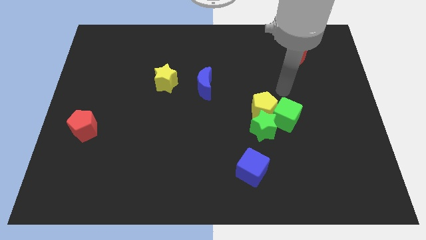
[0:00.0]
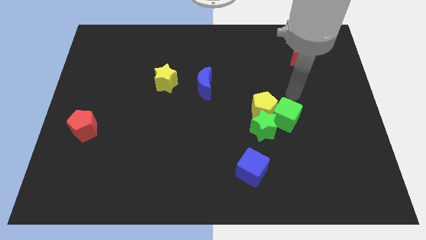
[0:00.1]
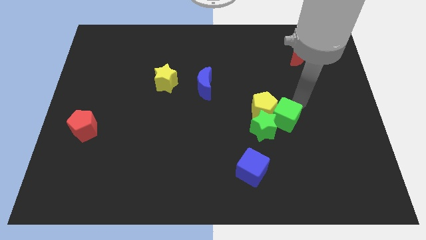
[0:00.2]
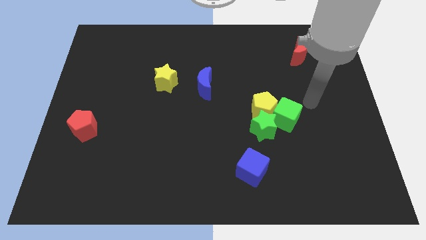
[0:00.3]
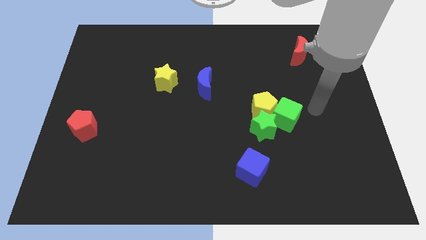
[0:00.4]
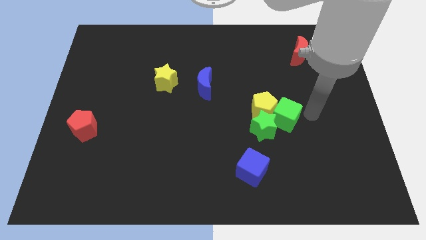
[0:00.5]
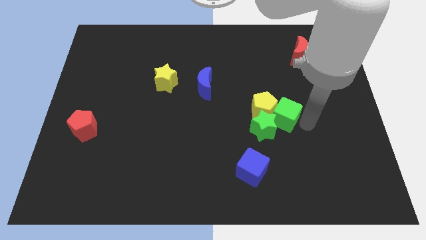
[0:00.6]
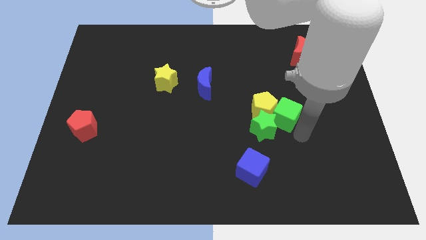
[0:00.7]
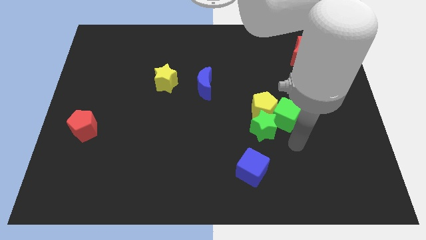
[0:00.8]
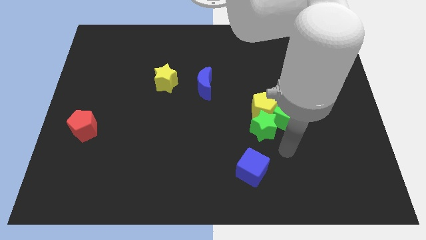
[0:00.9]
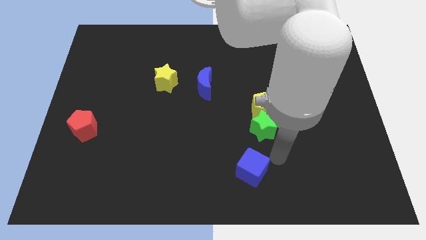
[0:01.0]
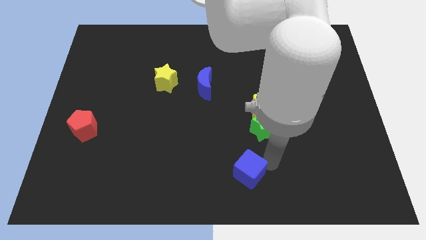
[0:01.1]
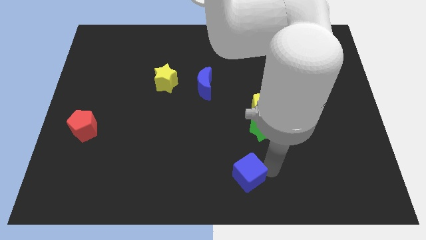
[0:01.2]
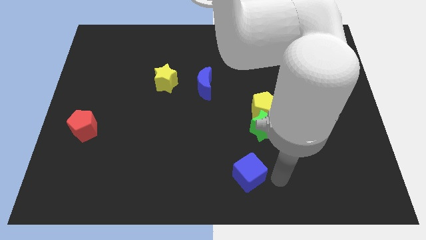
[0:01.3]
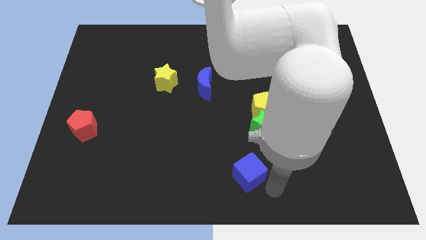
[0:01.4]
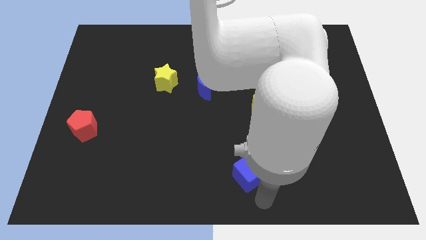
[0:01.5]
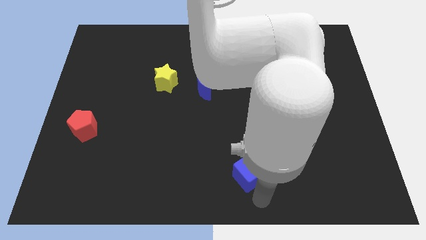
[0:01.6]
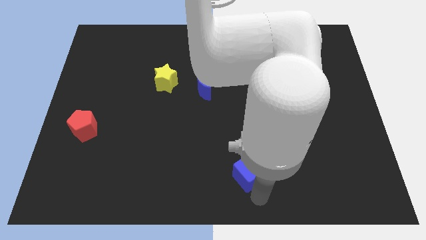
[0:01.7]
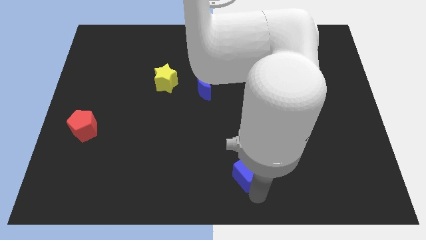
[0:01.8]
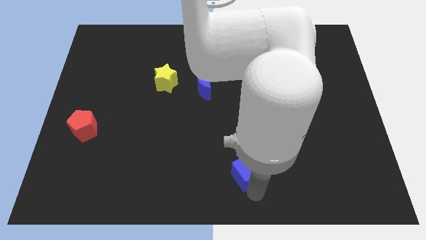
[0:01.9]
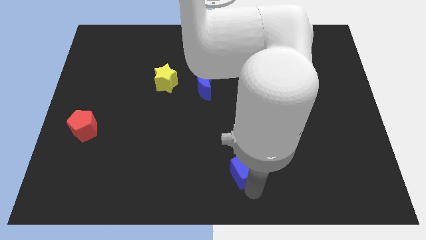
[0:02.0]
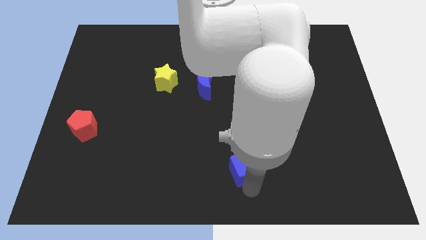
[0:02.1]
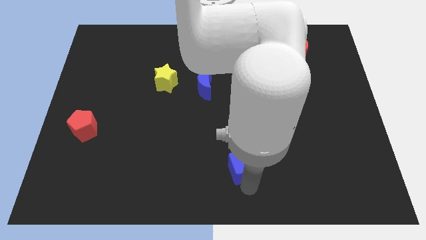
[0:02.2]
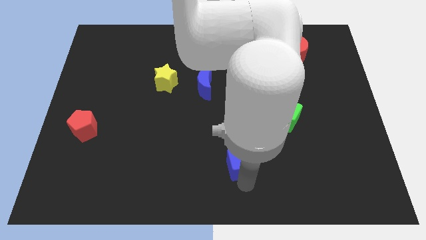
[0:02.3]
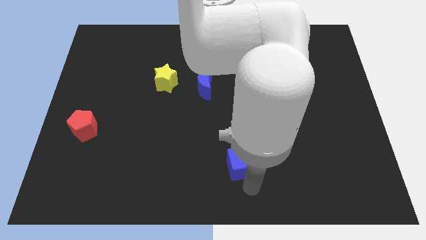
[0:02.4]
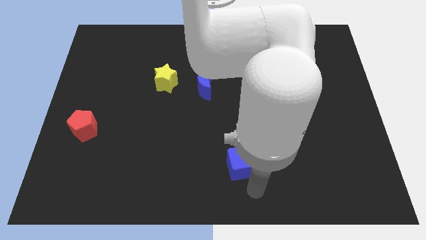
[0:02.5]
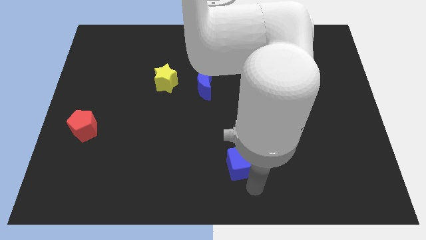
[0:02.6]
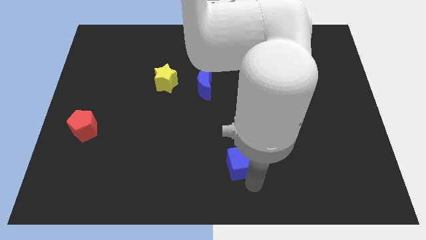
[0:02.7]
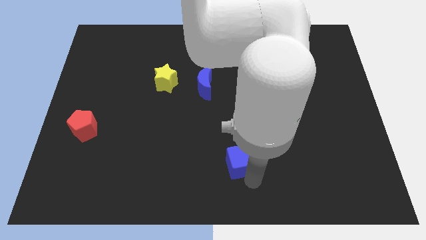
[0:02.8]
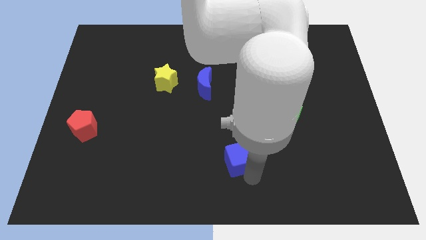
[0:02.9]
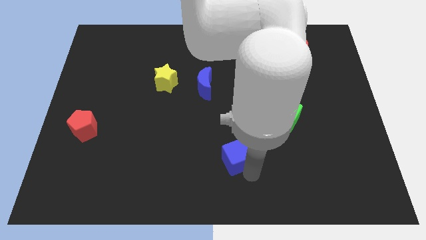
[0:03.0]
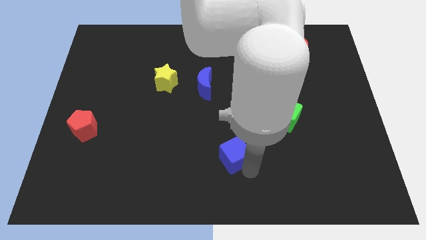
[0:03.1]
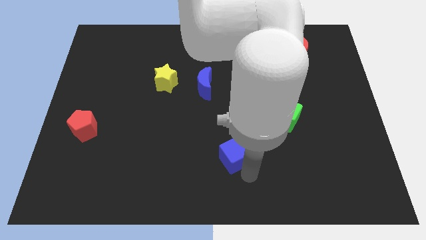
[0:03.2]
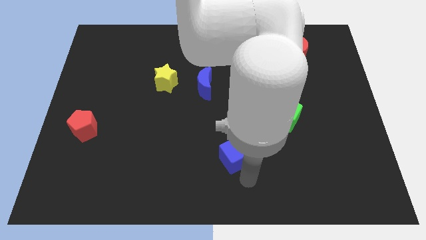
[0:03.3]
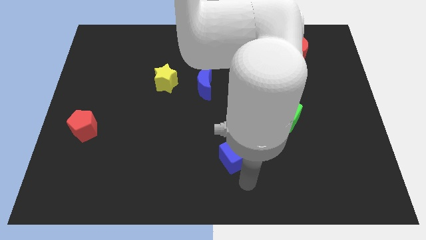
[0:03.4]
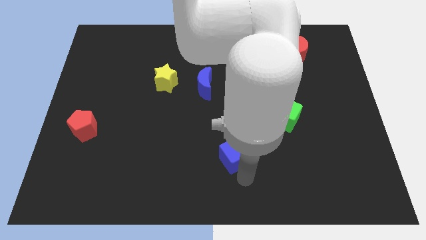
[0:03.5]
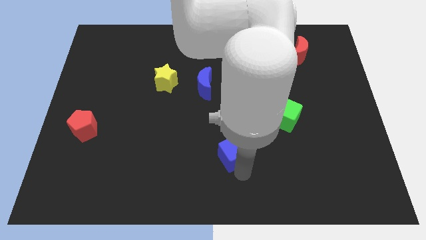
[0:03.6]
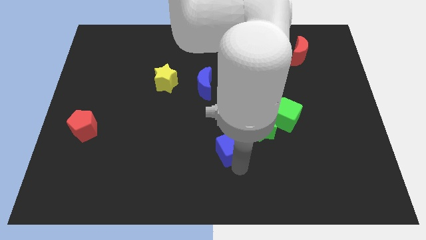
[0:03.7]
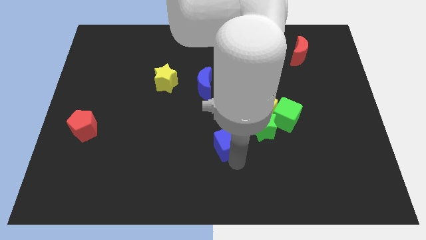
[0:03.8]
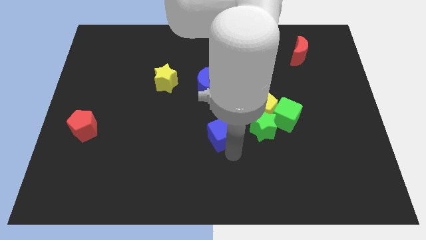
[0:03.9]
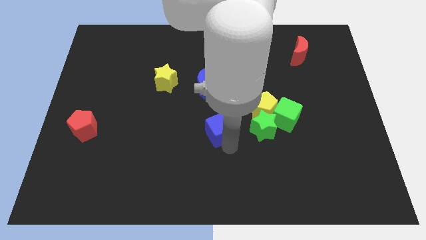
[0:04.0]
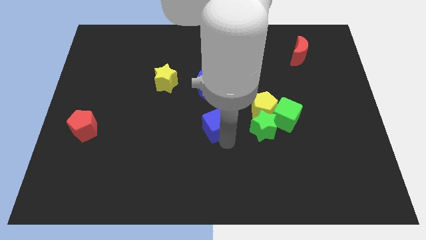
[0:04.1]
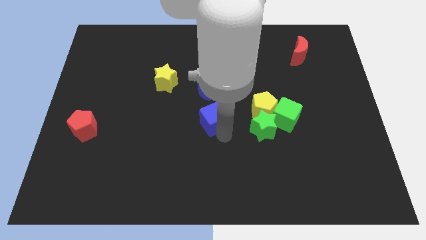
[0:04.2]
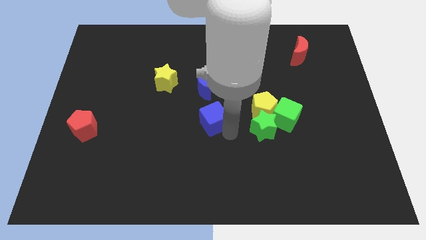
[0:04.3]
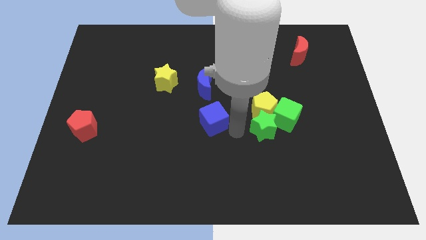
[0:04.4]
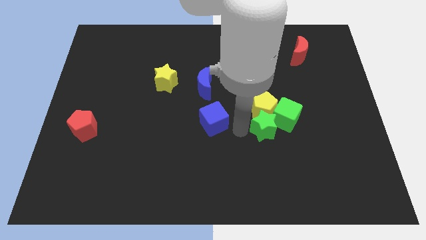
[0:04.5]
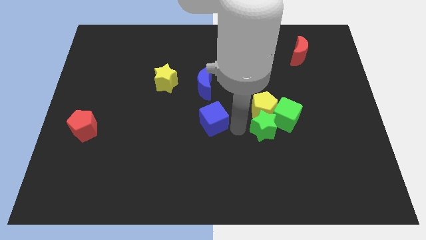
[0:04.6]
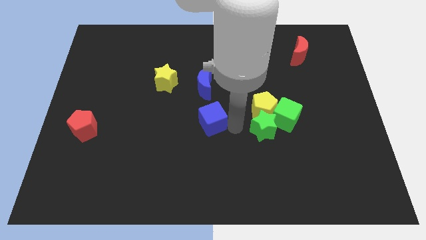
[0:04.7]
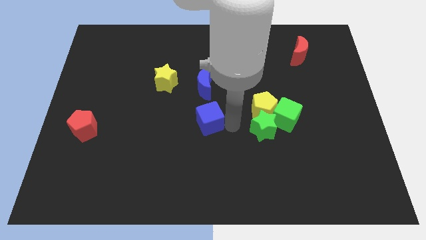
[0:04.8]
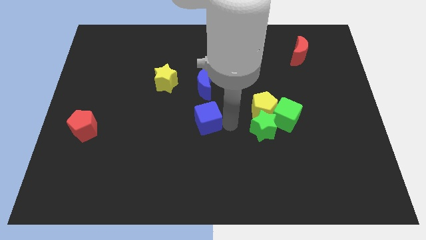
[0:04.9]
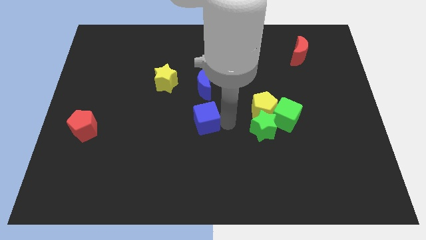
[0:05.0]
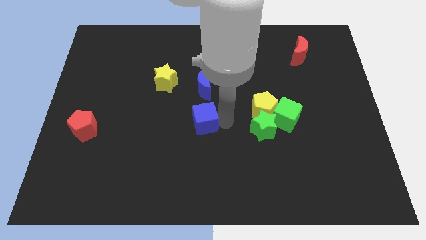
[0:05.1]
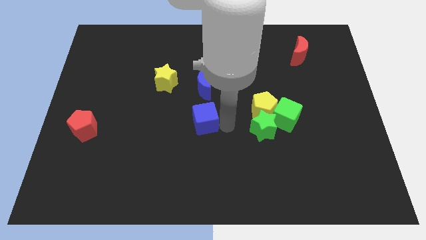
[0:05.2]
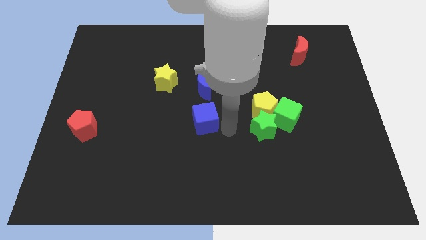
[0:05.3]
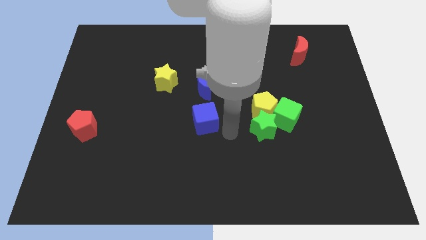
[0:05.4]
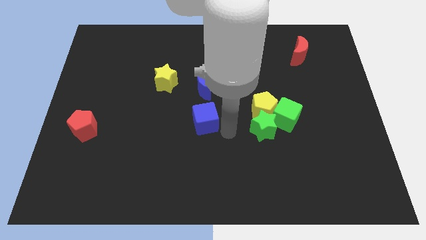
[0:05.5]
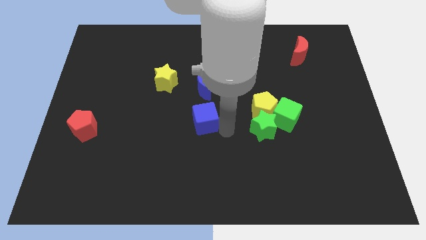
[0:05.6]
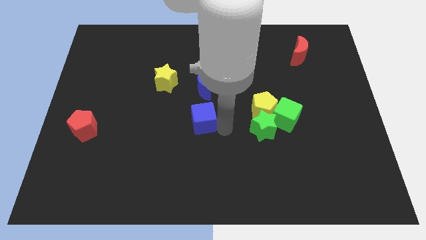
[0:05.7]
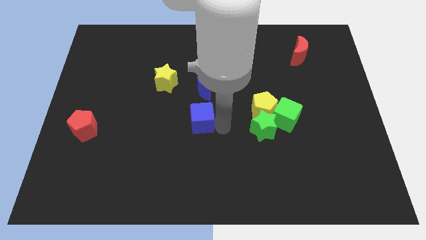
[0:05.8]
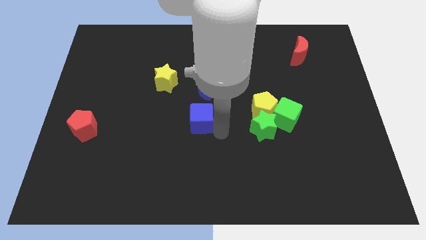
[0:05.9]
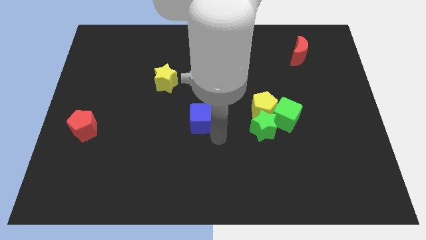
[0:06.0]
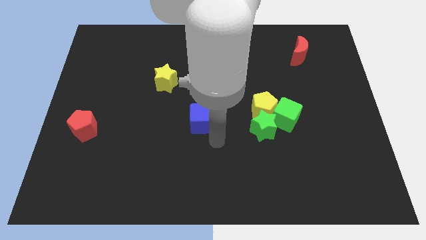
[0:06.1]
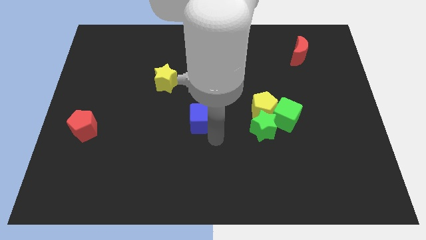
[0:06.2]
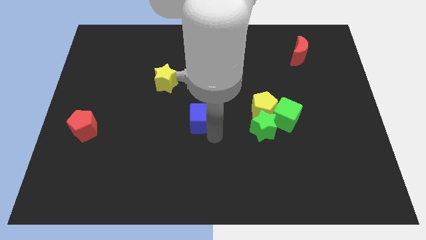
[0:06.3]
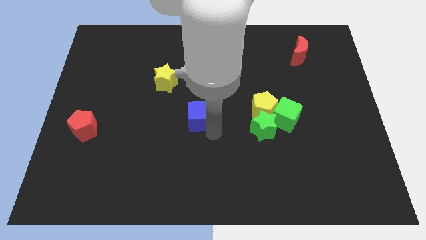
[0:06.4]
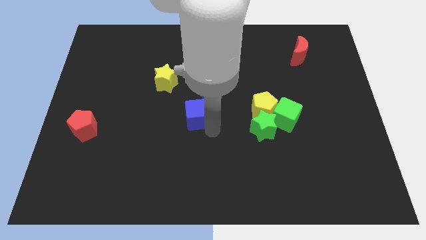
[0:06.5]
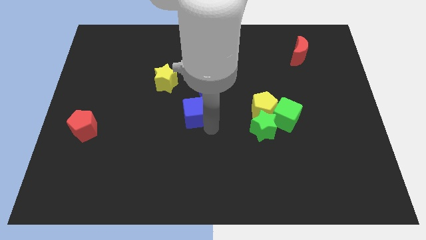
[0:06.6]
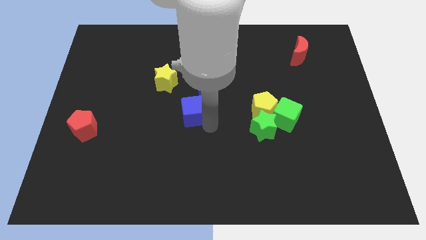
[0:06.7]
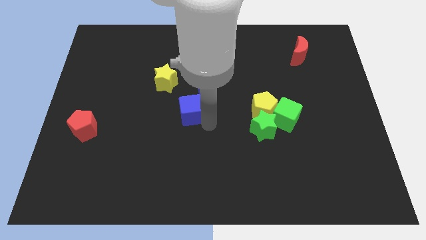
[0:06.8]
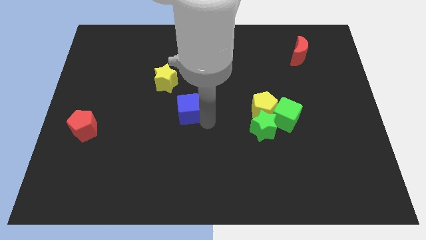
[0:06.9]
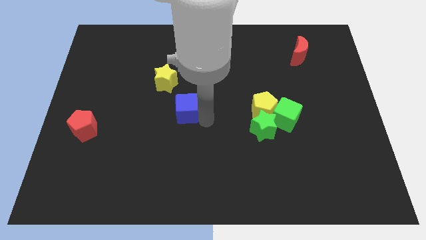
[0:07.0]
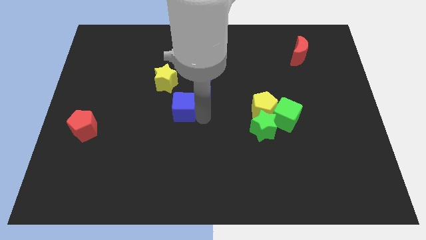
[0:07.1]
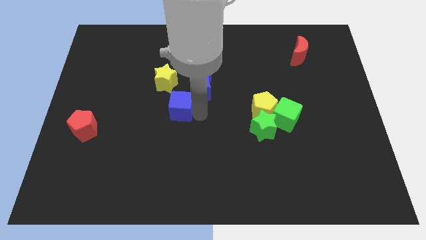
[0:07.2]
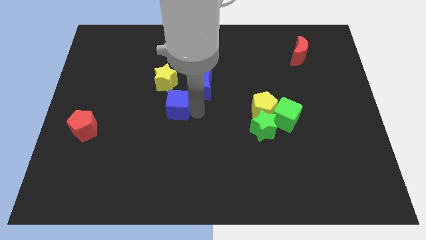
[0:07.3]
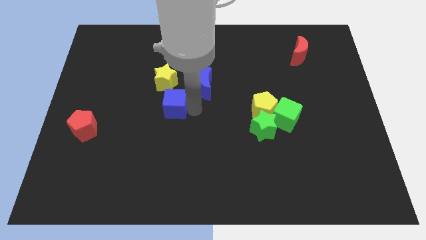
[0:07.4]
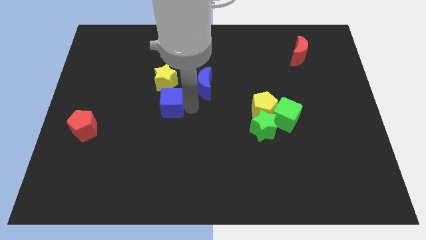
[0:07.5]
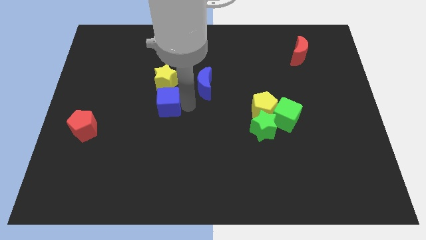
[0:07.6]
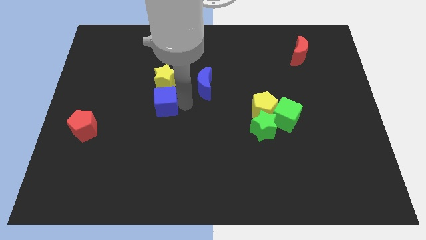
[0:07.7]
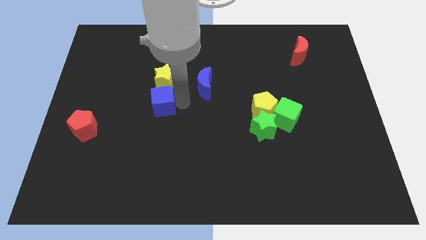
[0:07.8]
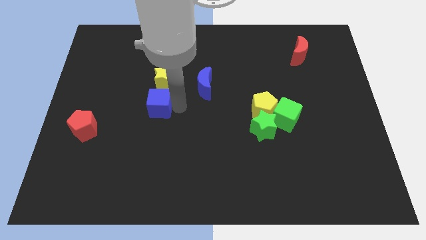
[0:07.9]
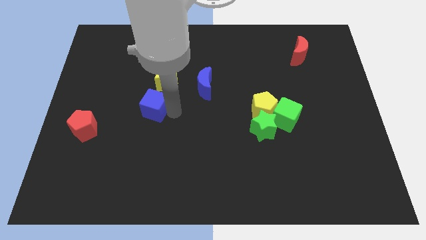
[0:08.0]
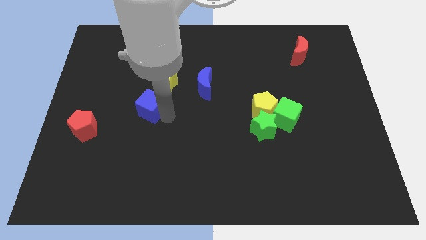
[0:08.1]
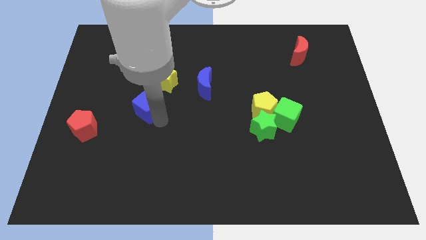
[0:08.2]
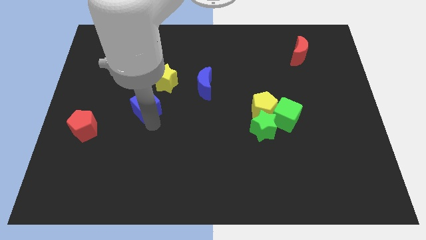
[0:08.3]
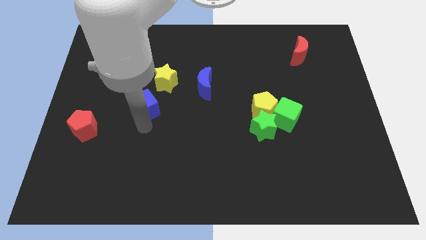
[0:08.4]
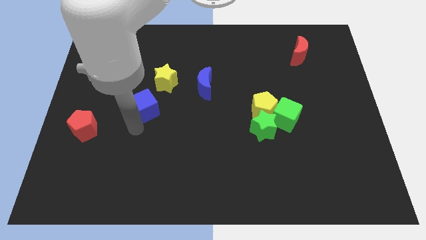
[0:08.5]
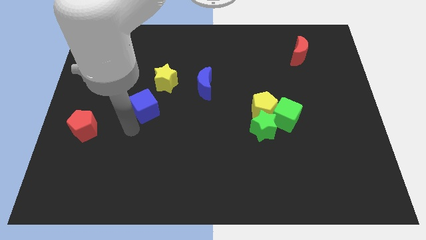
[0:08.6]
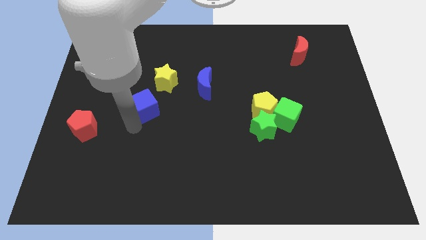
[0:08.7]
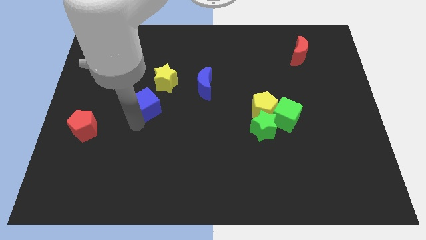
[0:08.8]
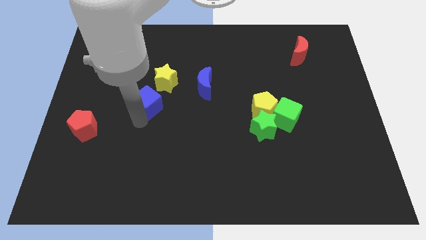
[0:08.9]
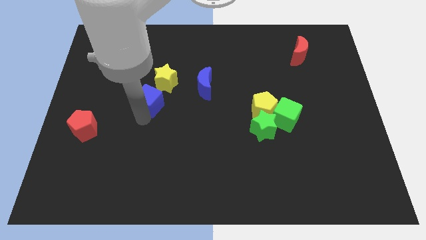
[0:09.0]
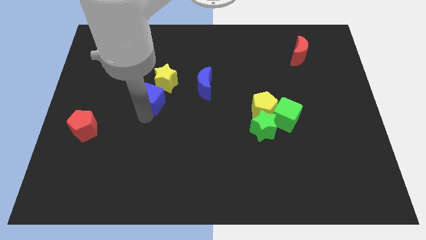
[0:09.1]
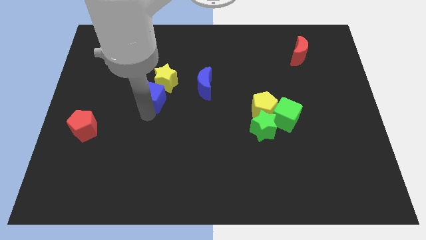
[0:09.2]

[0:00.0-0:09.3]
move the blue cube to the yellow star

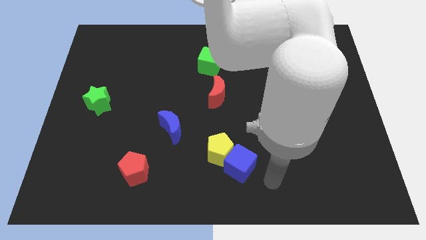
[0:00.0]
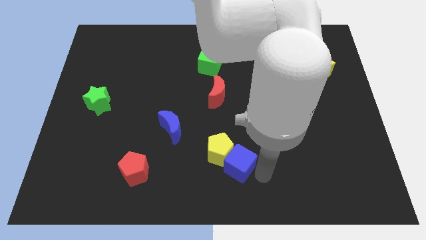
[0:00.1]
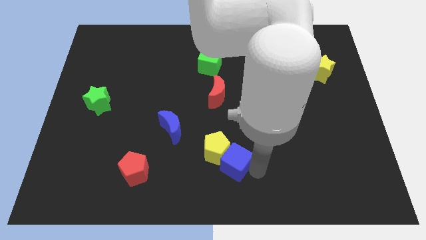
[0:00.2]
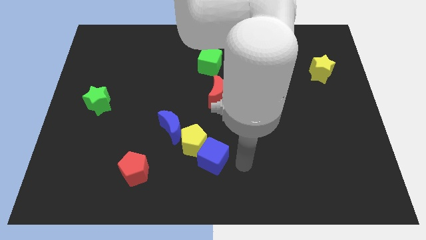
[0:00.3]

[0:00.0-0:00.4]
push the yellow pentagon towards the blue moon
